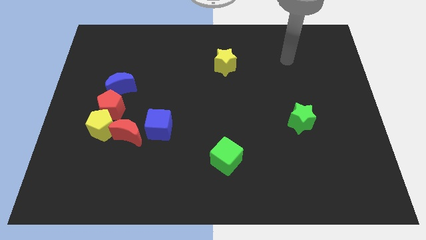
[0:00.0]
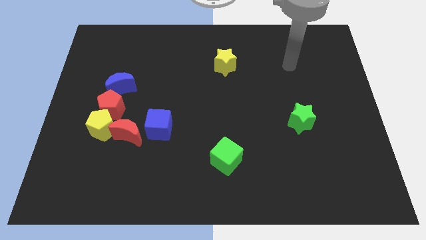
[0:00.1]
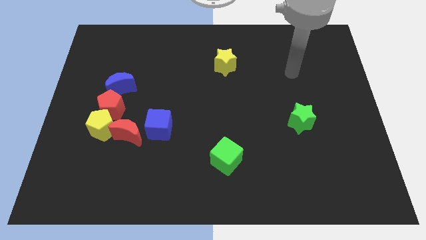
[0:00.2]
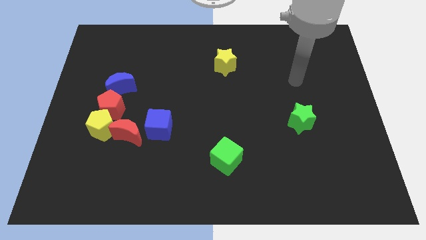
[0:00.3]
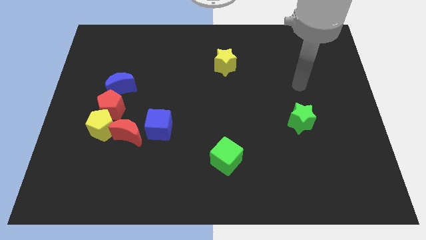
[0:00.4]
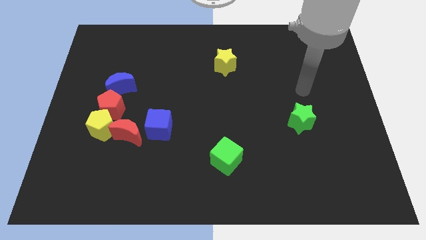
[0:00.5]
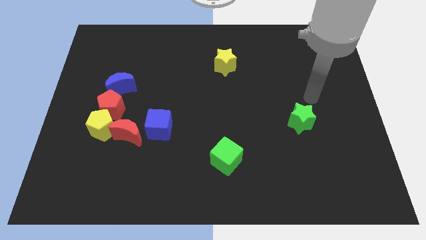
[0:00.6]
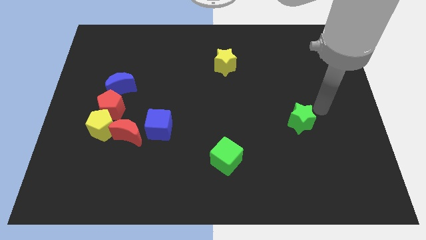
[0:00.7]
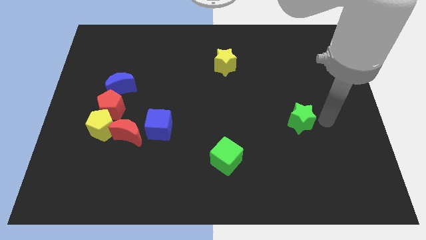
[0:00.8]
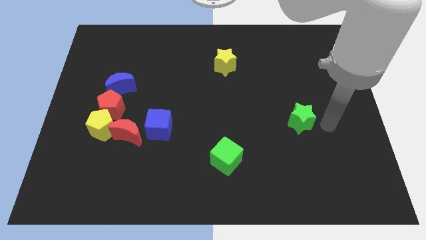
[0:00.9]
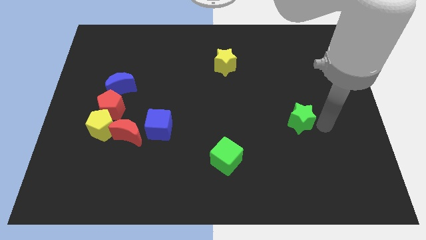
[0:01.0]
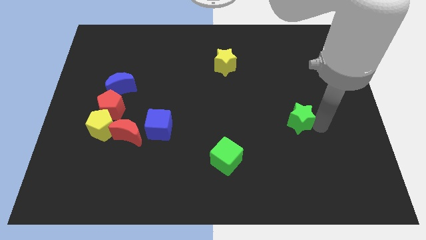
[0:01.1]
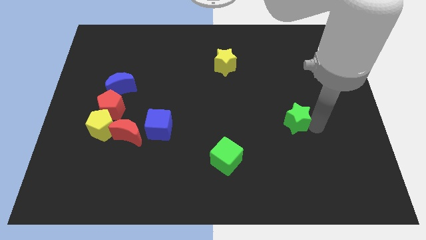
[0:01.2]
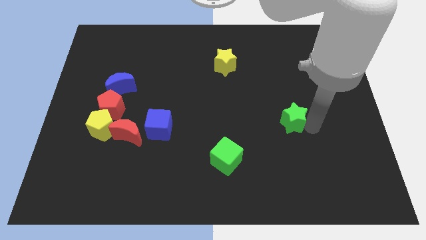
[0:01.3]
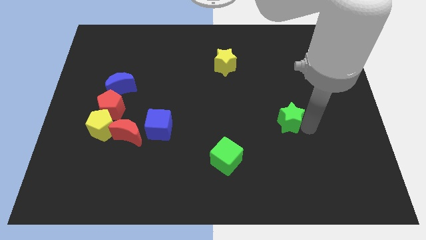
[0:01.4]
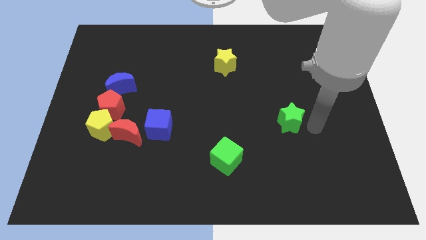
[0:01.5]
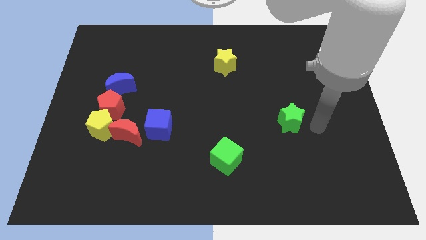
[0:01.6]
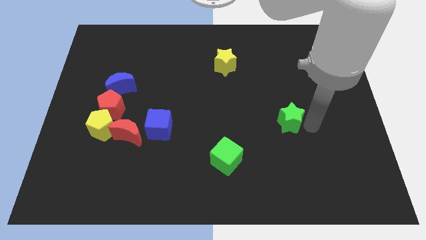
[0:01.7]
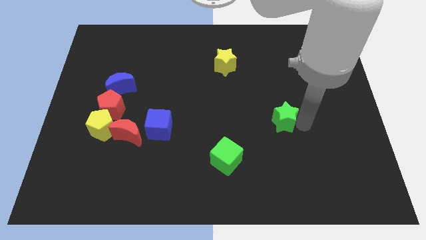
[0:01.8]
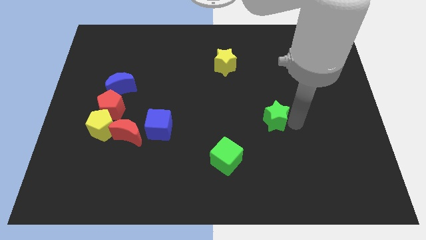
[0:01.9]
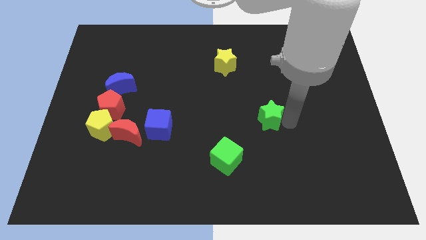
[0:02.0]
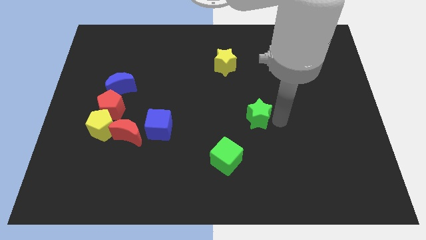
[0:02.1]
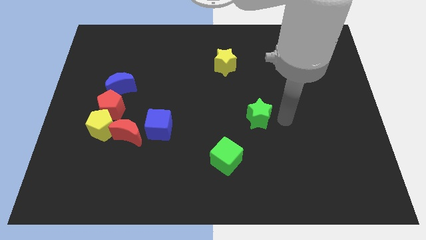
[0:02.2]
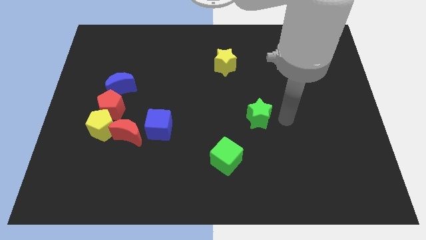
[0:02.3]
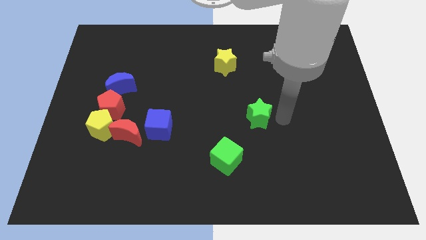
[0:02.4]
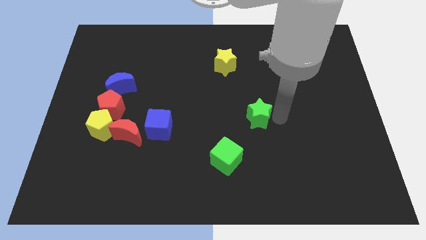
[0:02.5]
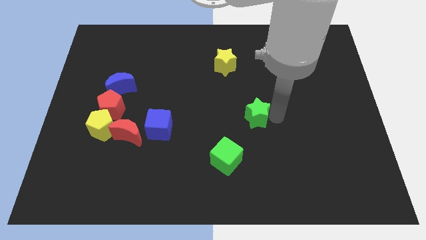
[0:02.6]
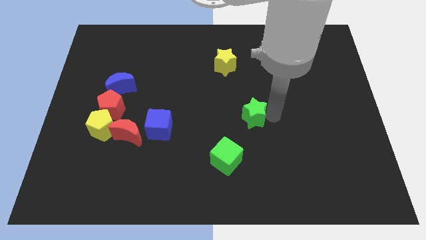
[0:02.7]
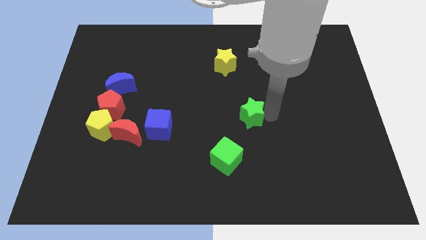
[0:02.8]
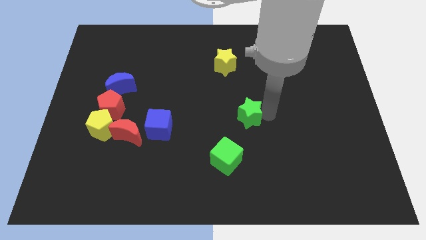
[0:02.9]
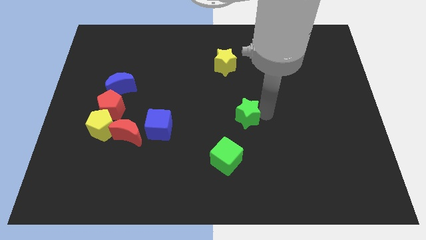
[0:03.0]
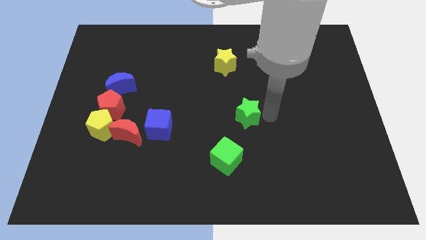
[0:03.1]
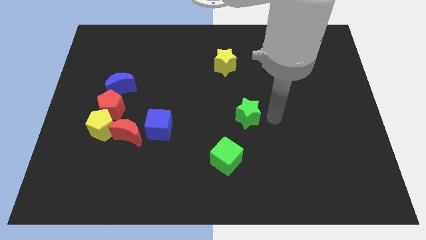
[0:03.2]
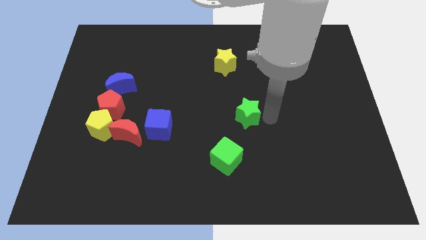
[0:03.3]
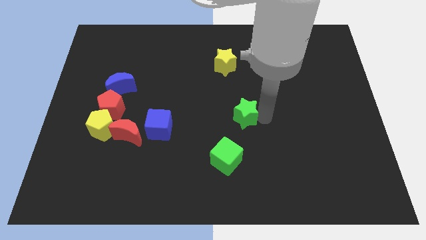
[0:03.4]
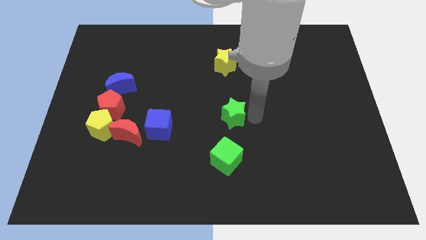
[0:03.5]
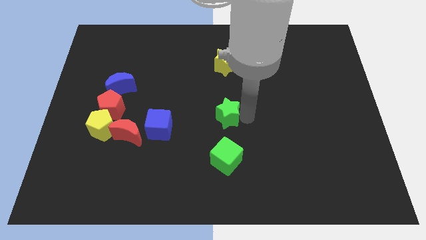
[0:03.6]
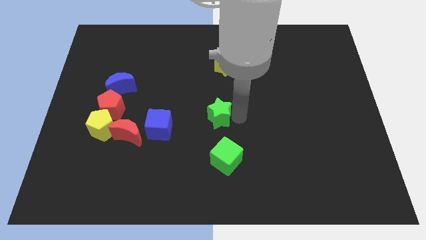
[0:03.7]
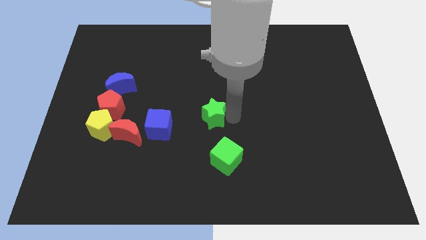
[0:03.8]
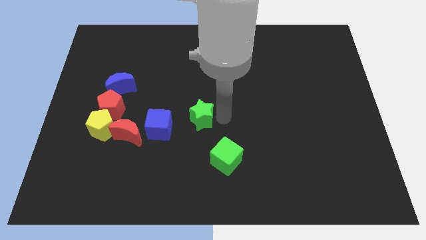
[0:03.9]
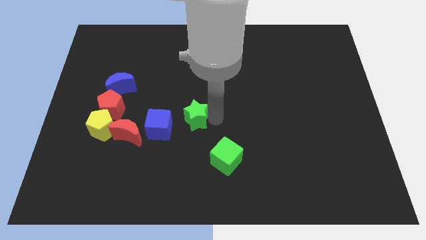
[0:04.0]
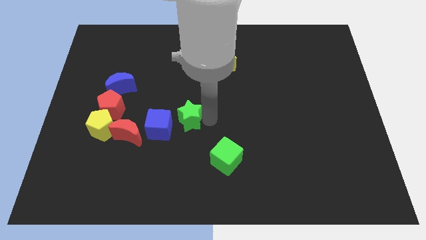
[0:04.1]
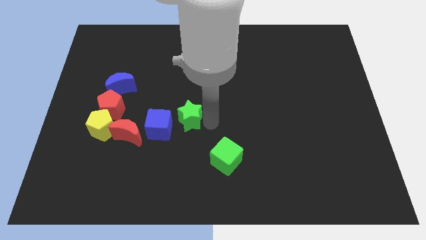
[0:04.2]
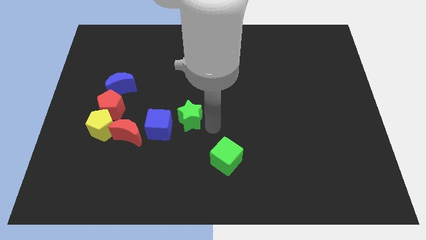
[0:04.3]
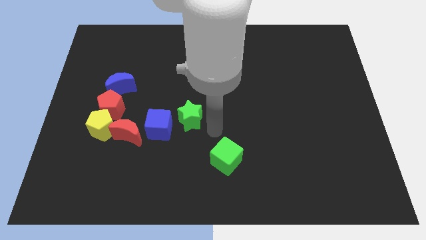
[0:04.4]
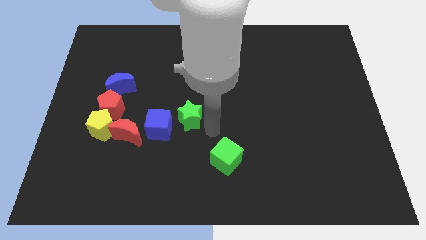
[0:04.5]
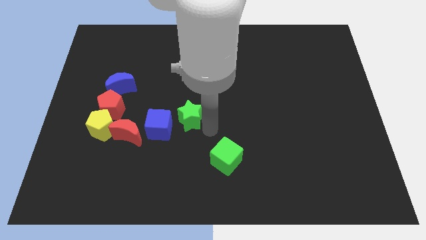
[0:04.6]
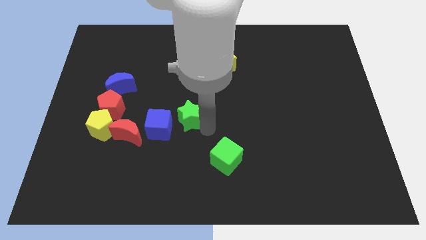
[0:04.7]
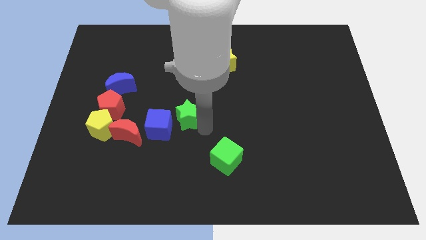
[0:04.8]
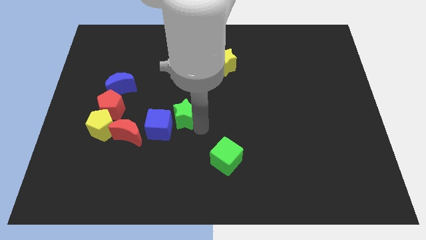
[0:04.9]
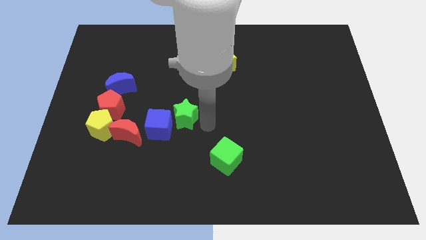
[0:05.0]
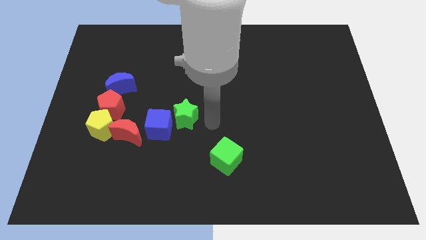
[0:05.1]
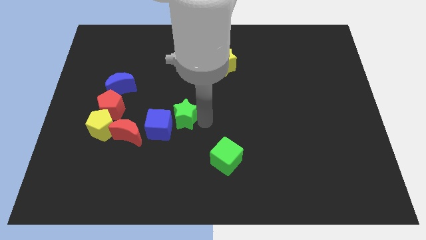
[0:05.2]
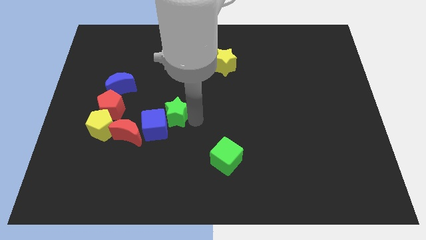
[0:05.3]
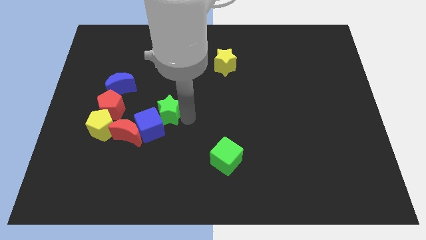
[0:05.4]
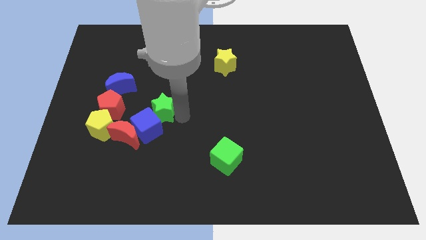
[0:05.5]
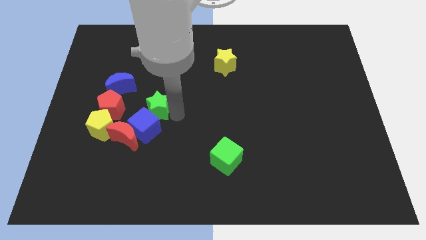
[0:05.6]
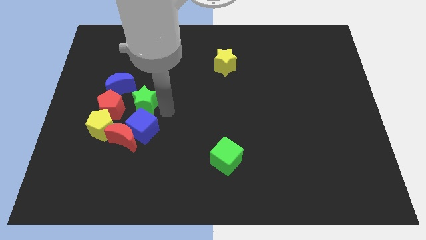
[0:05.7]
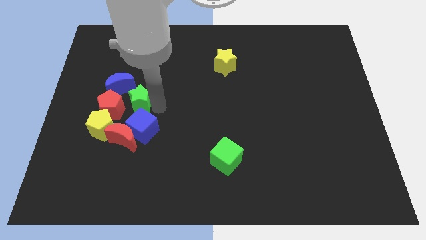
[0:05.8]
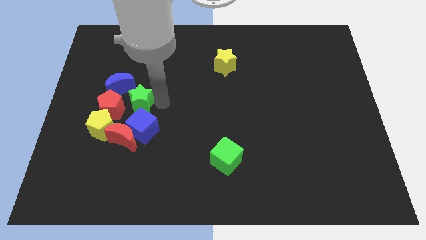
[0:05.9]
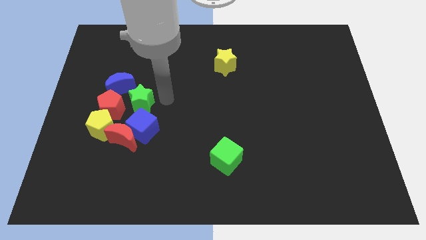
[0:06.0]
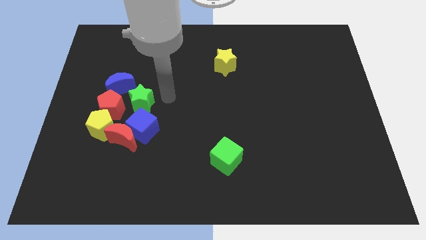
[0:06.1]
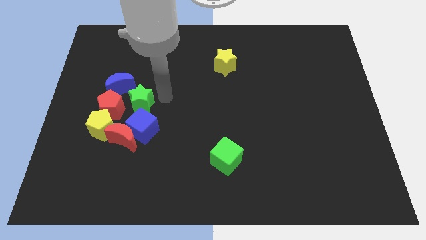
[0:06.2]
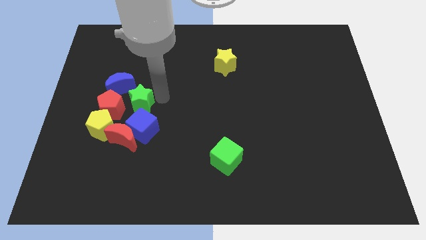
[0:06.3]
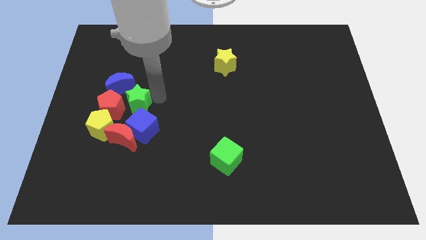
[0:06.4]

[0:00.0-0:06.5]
push the green star to the red pentagon

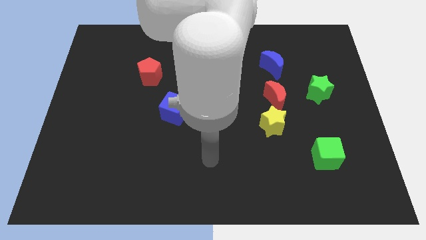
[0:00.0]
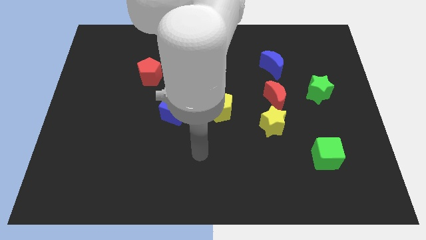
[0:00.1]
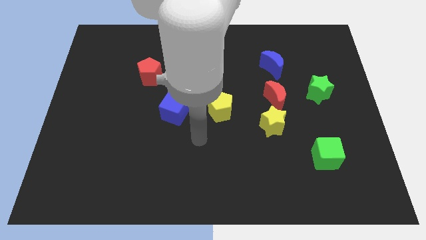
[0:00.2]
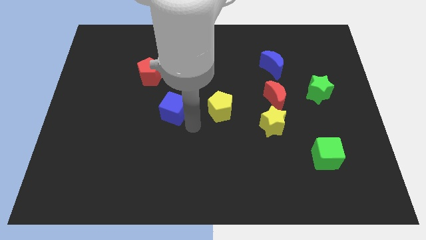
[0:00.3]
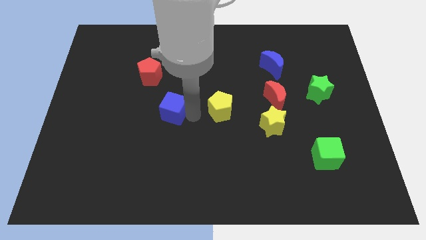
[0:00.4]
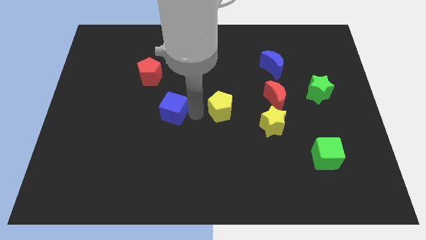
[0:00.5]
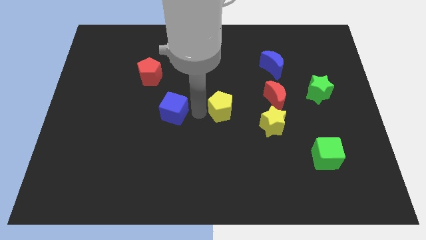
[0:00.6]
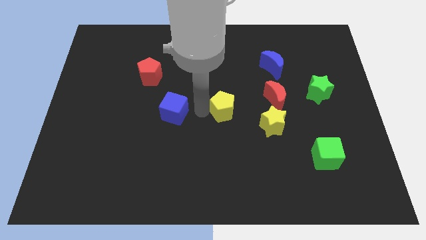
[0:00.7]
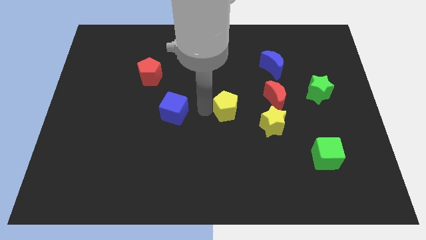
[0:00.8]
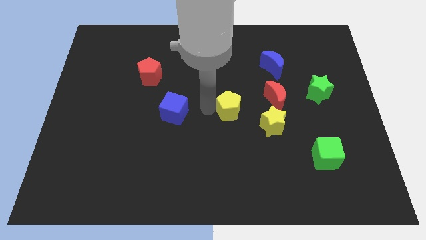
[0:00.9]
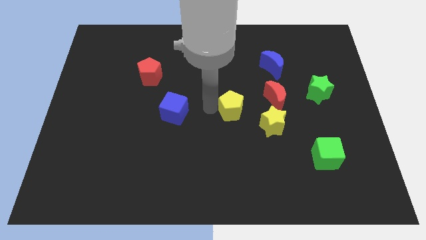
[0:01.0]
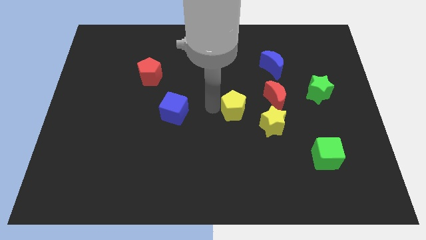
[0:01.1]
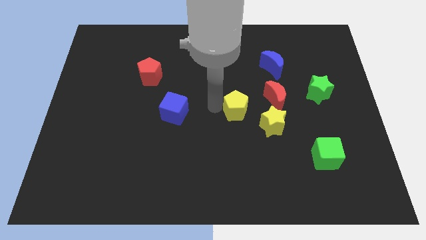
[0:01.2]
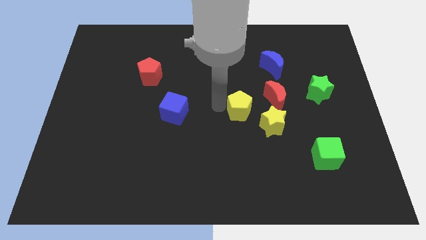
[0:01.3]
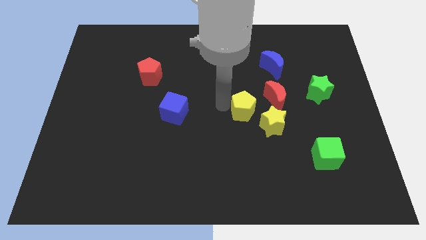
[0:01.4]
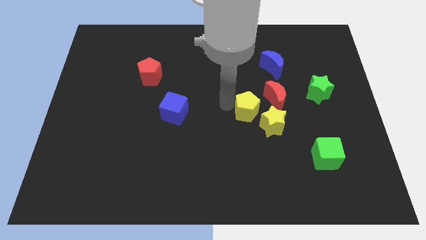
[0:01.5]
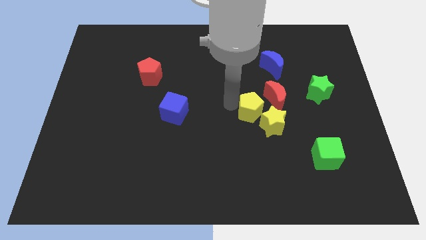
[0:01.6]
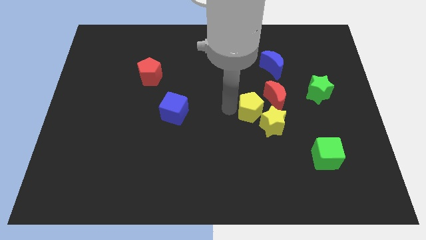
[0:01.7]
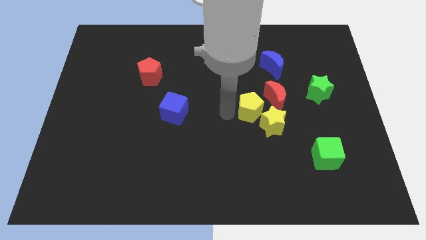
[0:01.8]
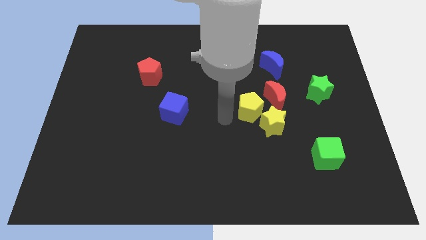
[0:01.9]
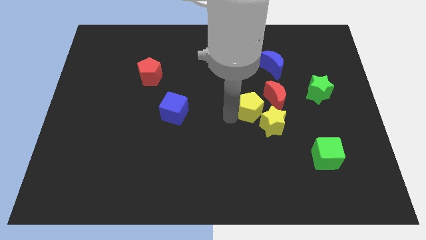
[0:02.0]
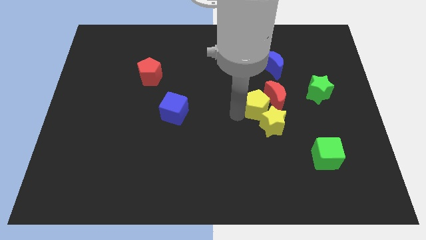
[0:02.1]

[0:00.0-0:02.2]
slide the yellow pentagon towards the red moon
